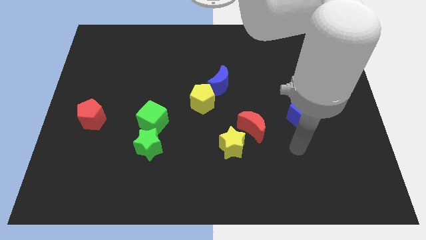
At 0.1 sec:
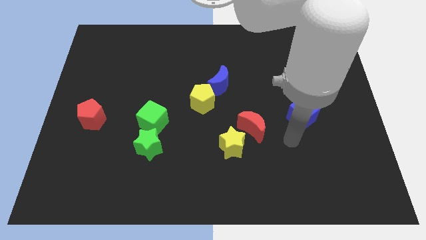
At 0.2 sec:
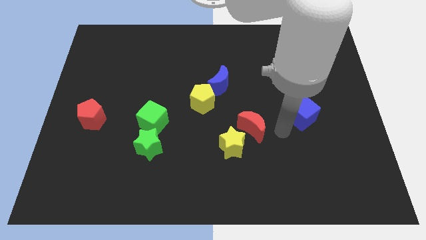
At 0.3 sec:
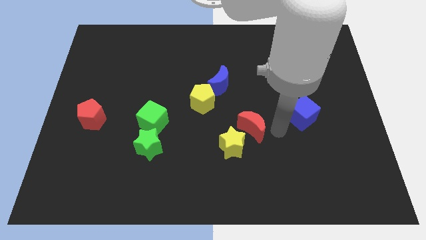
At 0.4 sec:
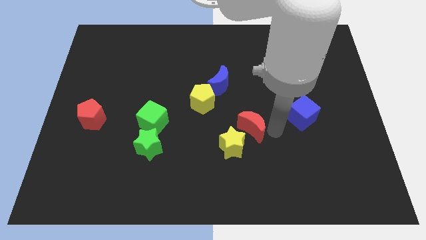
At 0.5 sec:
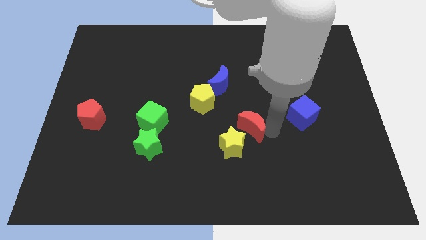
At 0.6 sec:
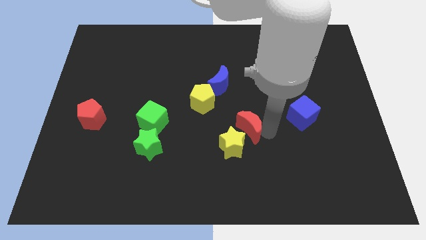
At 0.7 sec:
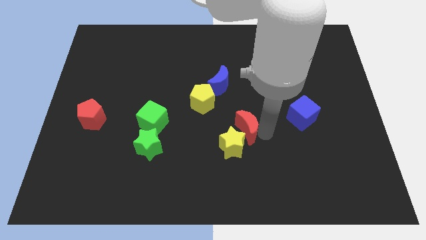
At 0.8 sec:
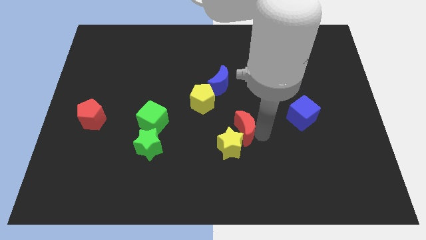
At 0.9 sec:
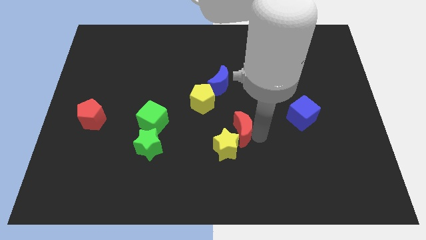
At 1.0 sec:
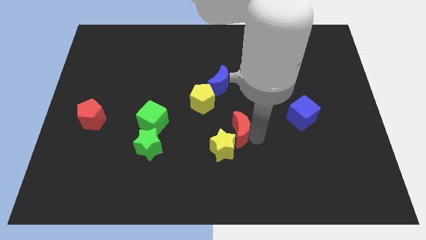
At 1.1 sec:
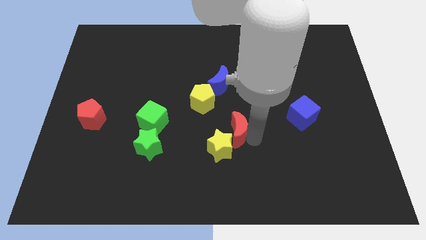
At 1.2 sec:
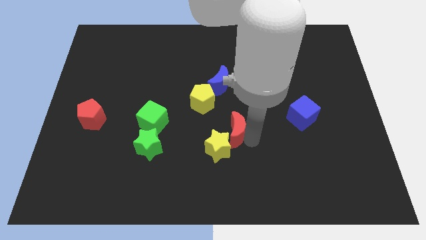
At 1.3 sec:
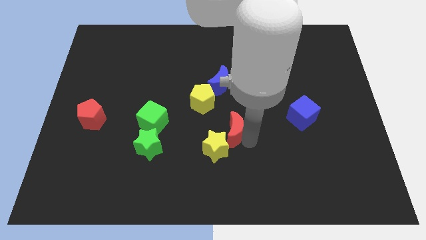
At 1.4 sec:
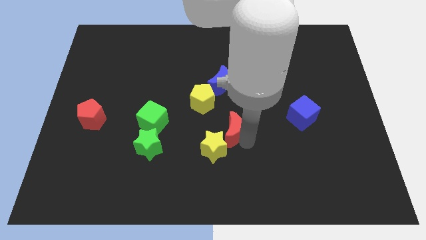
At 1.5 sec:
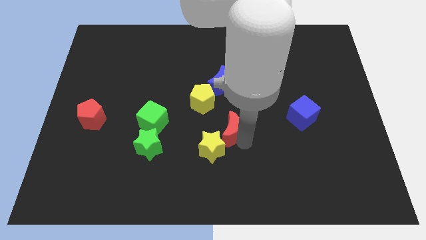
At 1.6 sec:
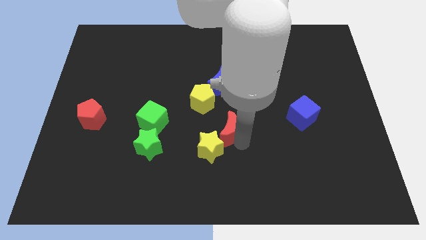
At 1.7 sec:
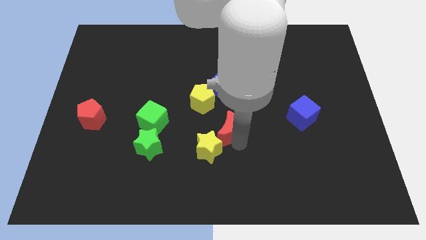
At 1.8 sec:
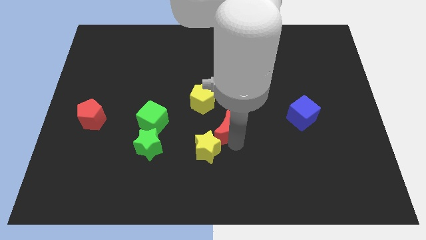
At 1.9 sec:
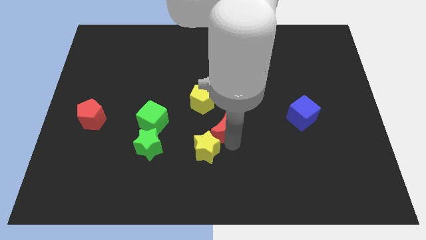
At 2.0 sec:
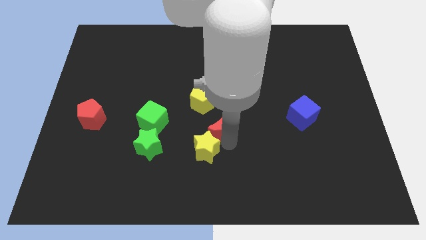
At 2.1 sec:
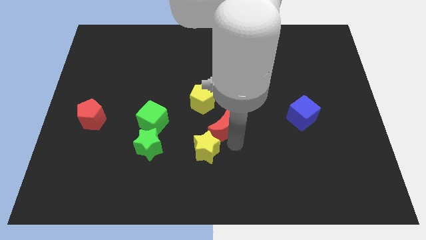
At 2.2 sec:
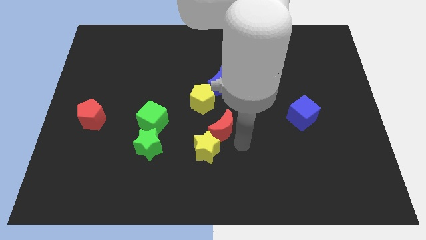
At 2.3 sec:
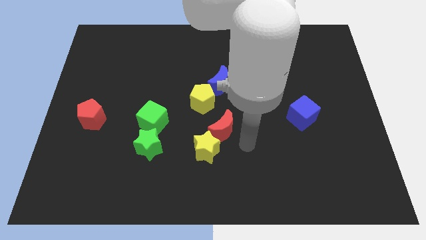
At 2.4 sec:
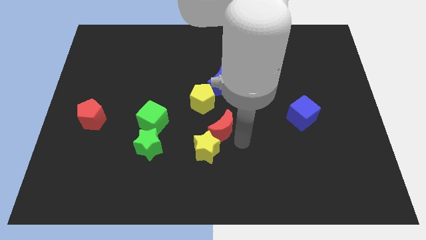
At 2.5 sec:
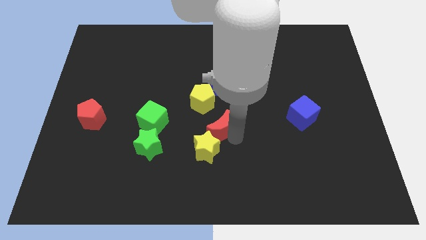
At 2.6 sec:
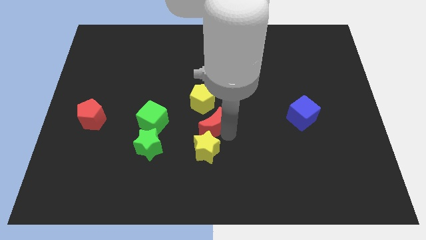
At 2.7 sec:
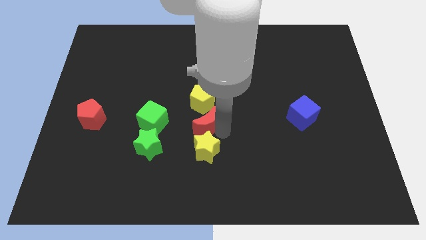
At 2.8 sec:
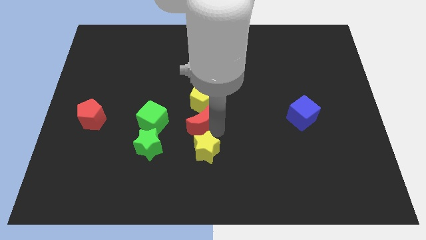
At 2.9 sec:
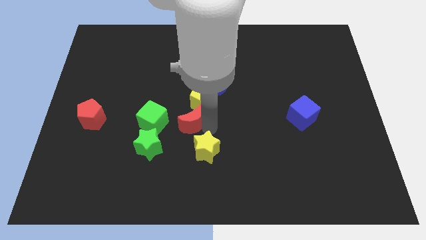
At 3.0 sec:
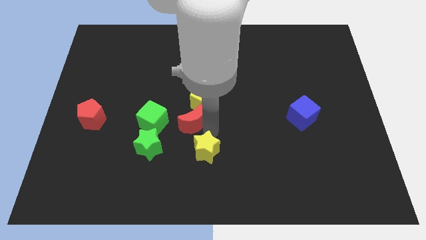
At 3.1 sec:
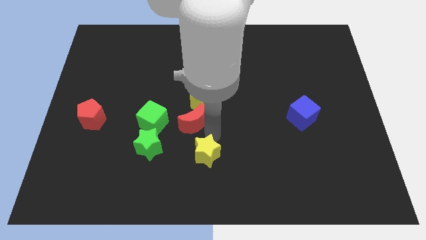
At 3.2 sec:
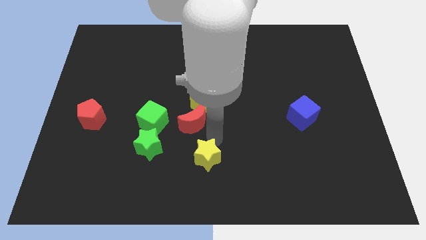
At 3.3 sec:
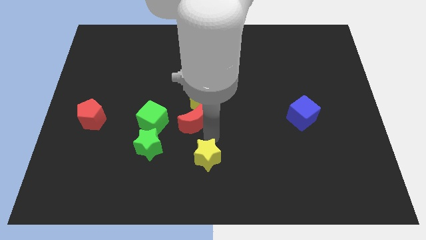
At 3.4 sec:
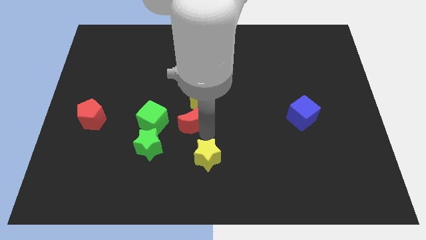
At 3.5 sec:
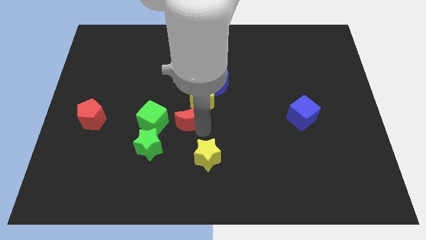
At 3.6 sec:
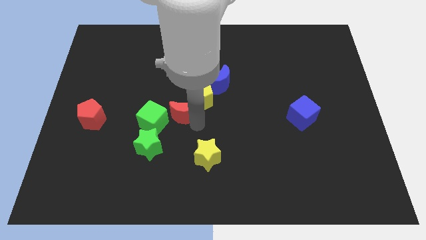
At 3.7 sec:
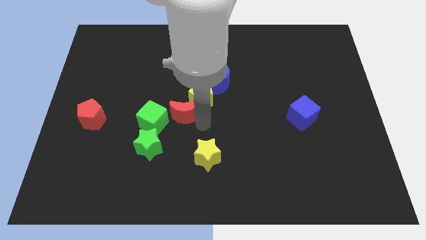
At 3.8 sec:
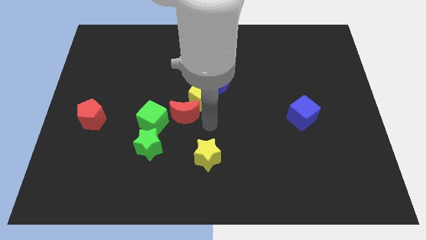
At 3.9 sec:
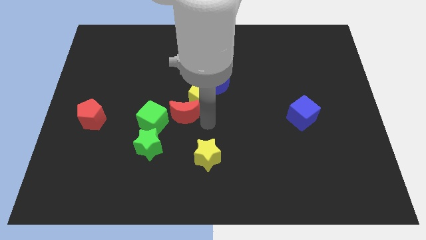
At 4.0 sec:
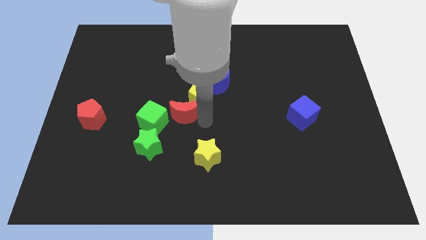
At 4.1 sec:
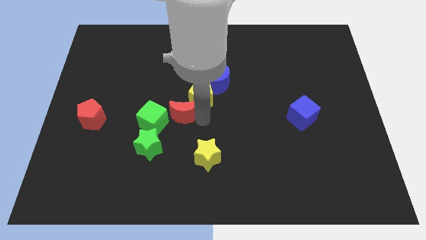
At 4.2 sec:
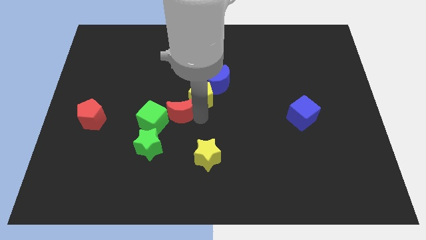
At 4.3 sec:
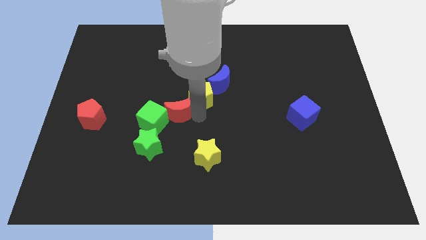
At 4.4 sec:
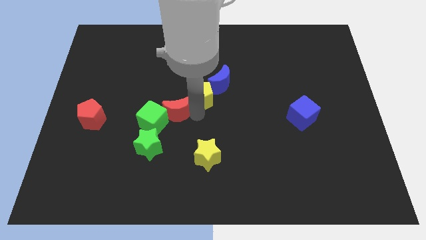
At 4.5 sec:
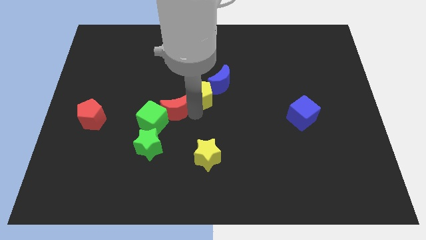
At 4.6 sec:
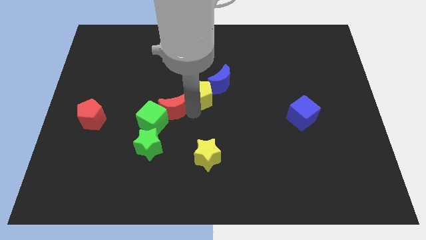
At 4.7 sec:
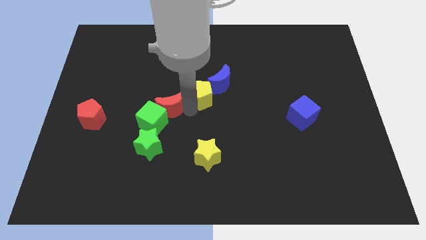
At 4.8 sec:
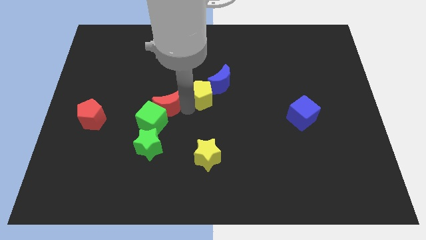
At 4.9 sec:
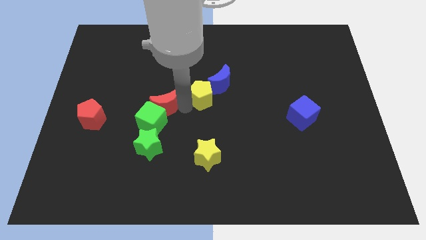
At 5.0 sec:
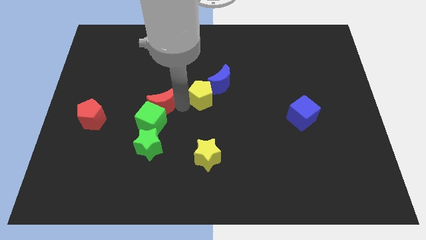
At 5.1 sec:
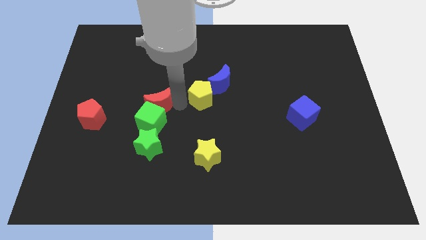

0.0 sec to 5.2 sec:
push the red moon left

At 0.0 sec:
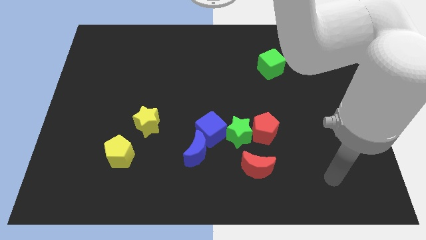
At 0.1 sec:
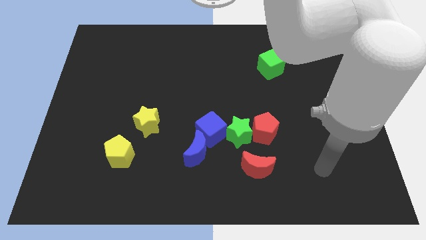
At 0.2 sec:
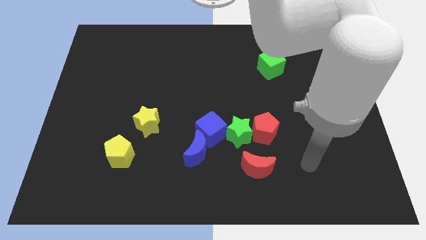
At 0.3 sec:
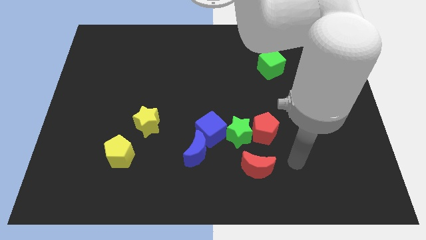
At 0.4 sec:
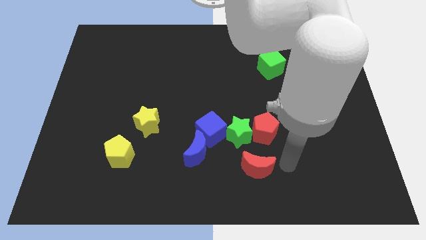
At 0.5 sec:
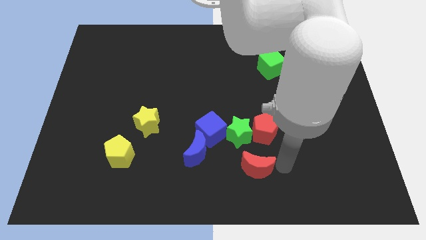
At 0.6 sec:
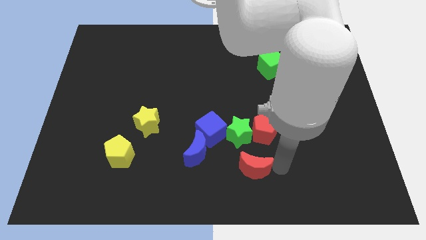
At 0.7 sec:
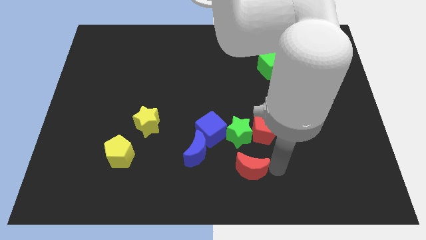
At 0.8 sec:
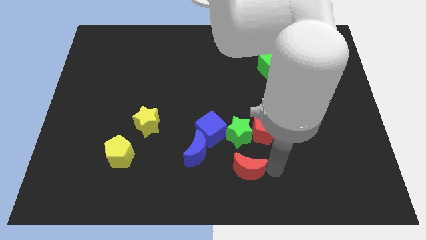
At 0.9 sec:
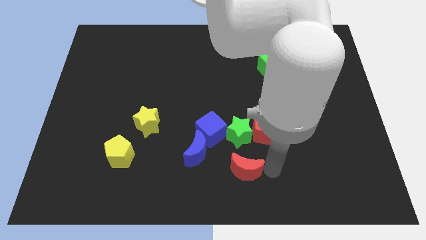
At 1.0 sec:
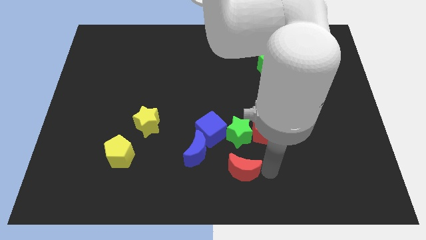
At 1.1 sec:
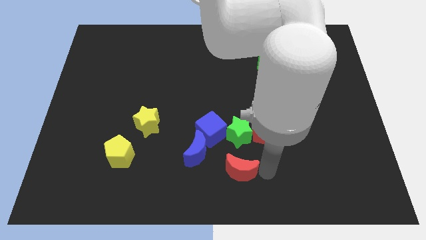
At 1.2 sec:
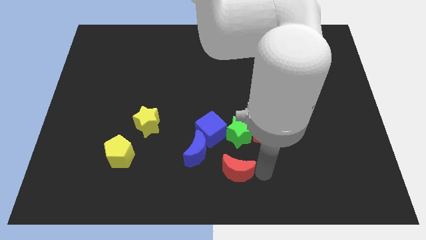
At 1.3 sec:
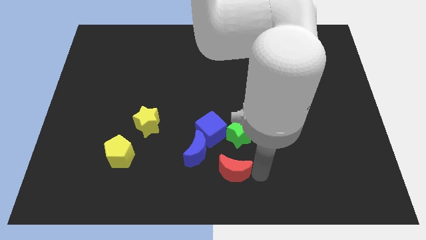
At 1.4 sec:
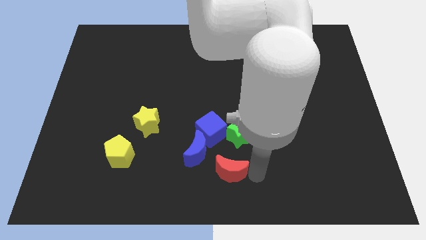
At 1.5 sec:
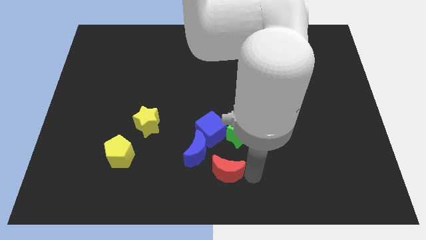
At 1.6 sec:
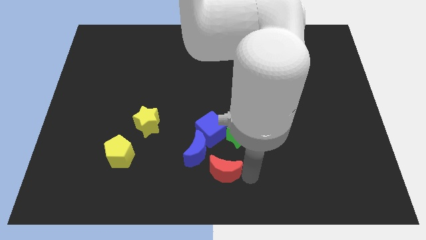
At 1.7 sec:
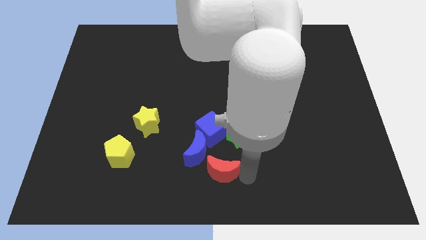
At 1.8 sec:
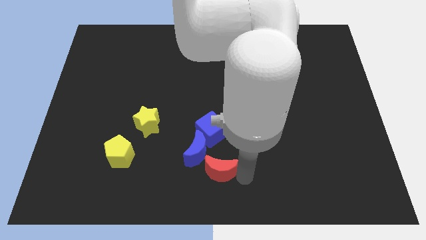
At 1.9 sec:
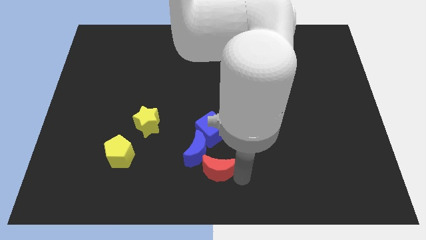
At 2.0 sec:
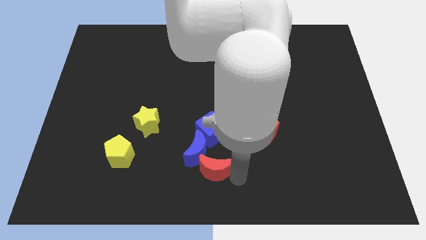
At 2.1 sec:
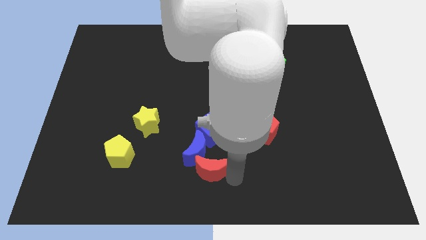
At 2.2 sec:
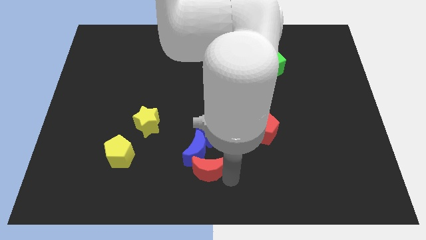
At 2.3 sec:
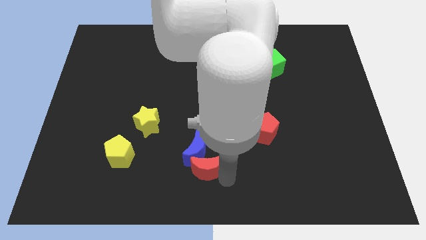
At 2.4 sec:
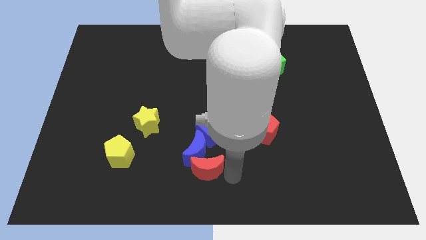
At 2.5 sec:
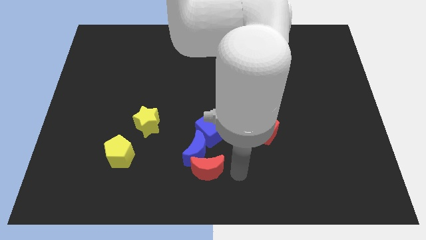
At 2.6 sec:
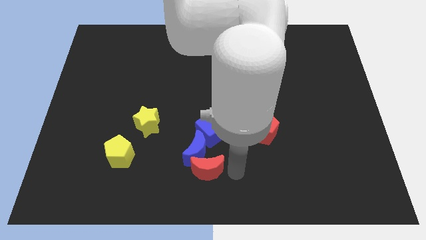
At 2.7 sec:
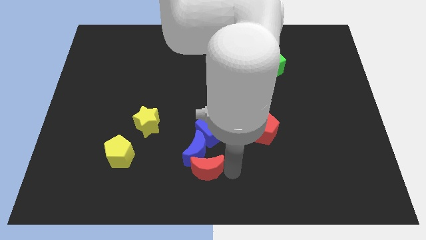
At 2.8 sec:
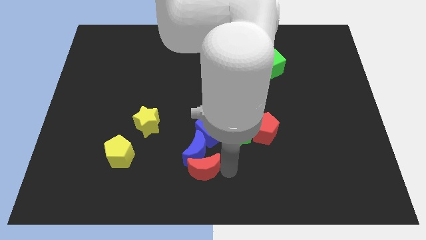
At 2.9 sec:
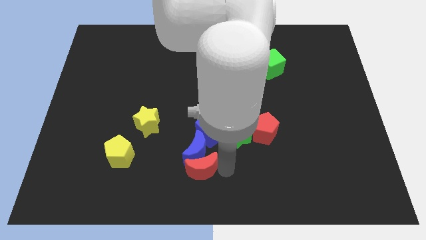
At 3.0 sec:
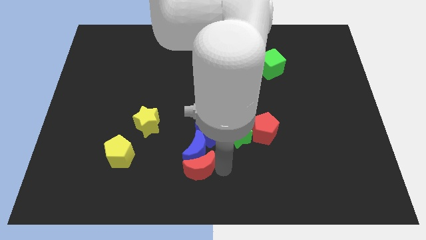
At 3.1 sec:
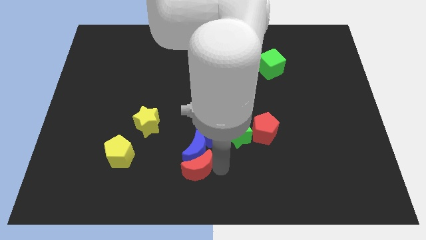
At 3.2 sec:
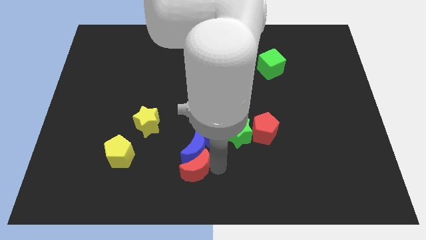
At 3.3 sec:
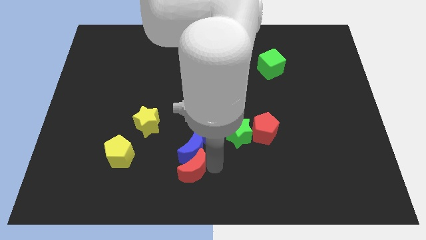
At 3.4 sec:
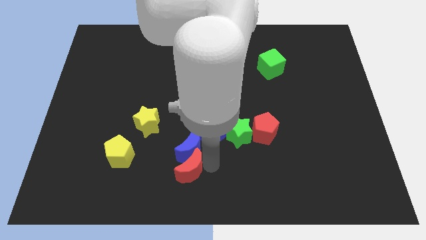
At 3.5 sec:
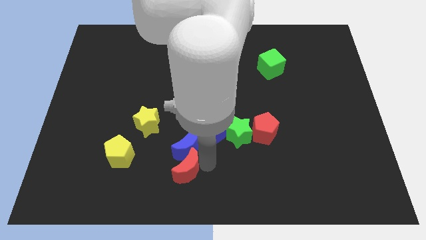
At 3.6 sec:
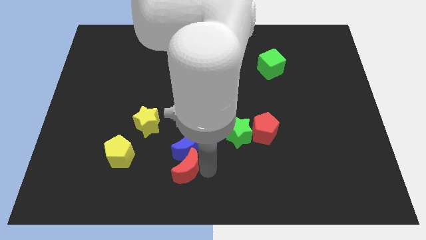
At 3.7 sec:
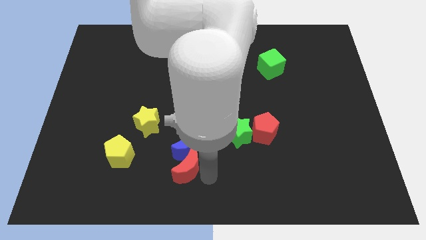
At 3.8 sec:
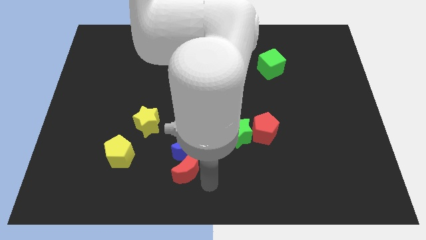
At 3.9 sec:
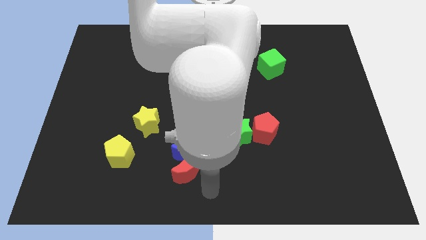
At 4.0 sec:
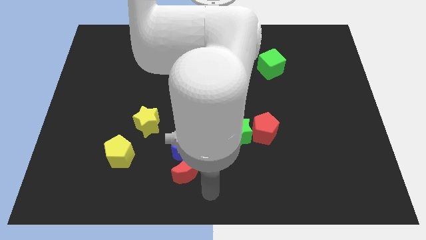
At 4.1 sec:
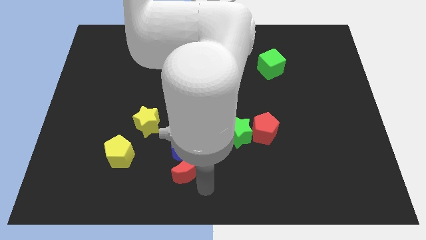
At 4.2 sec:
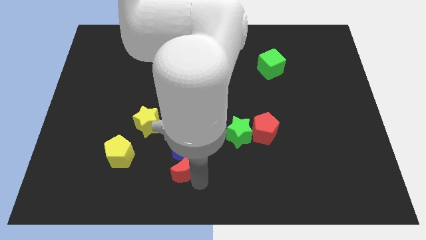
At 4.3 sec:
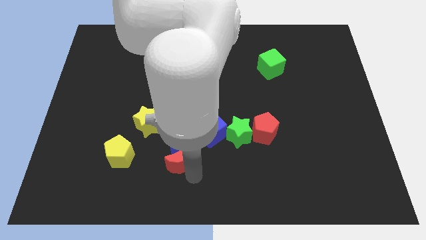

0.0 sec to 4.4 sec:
move the red moon up and to the left diagonally a little
